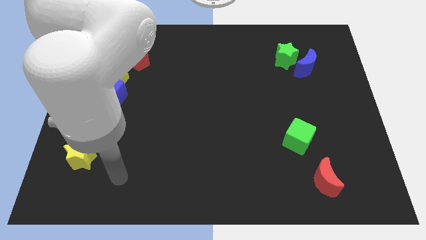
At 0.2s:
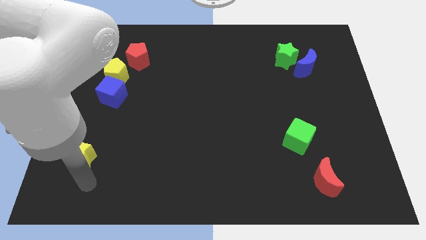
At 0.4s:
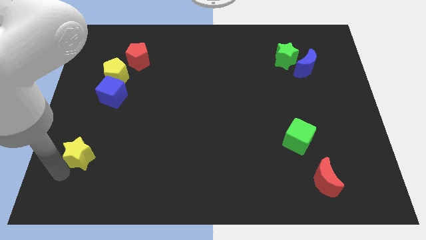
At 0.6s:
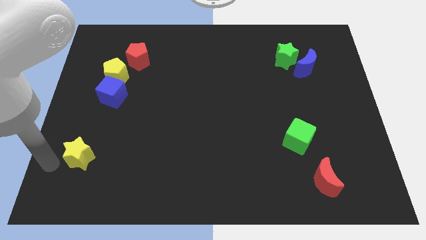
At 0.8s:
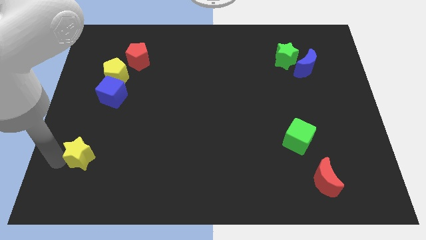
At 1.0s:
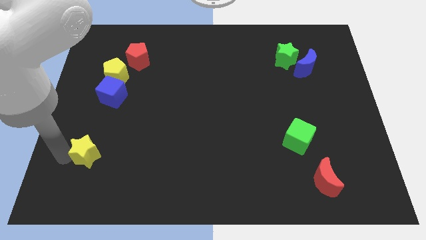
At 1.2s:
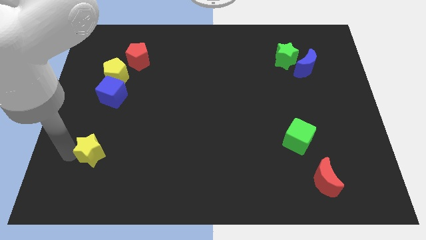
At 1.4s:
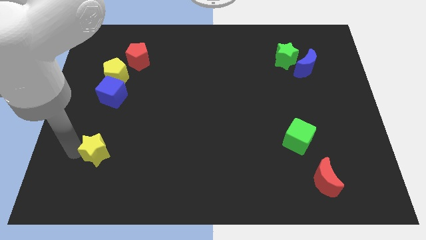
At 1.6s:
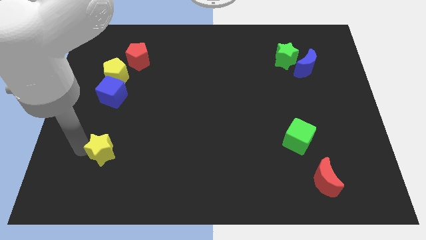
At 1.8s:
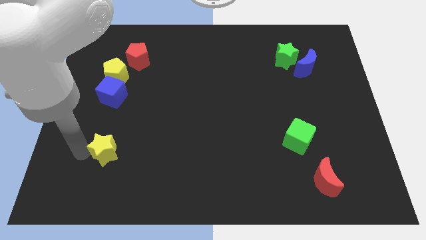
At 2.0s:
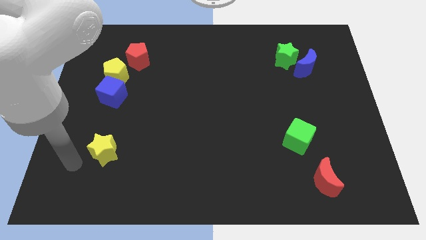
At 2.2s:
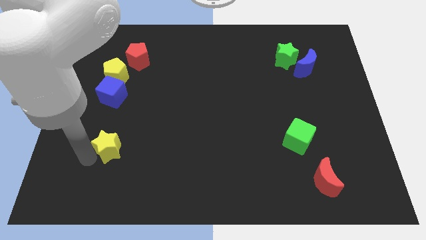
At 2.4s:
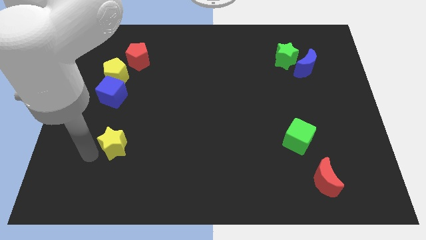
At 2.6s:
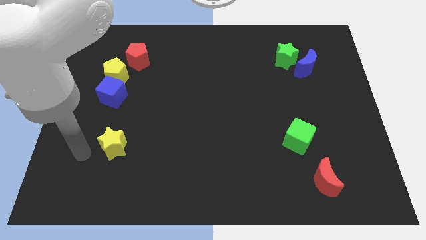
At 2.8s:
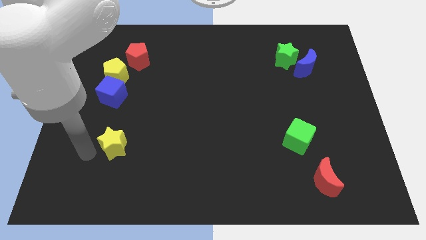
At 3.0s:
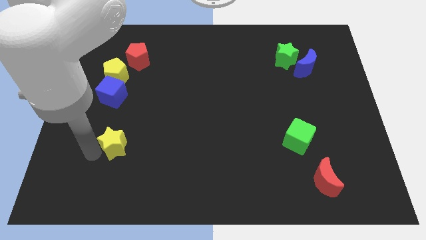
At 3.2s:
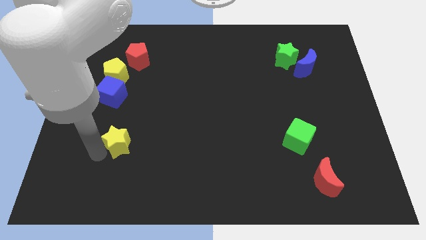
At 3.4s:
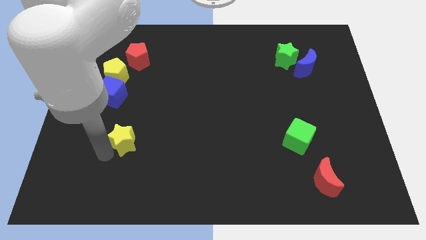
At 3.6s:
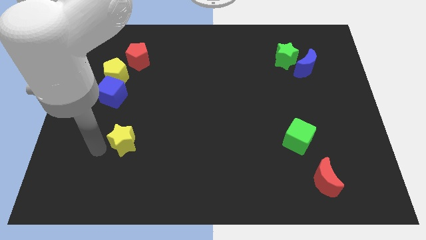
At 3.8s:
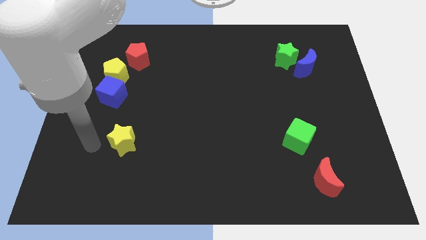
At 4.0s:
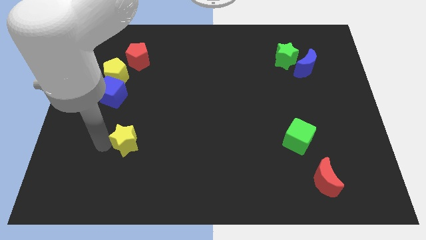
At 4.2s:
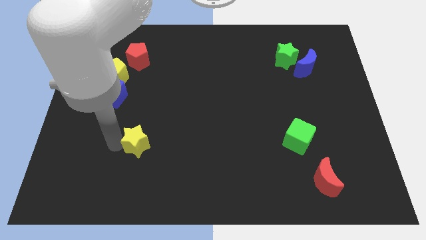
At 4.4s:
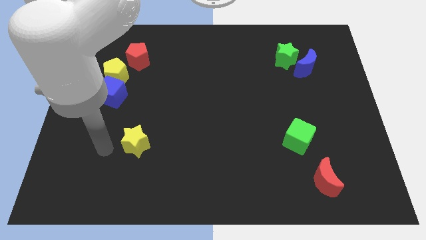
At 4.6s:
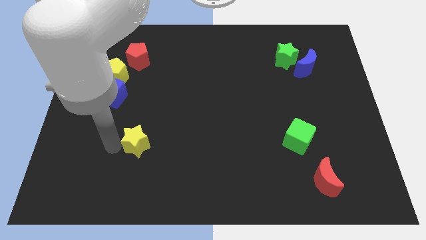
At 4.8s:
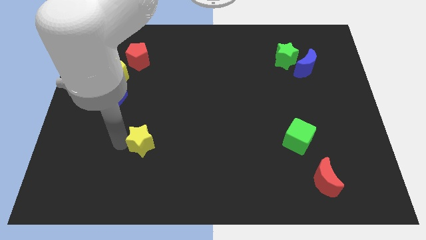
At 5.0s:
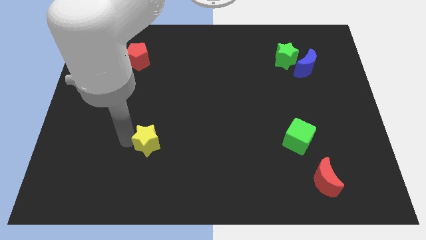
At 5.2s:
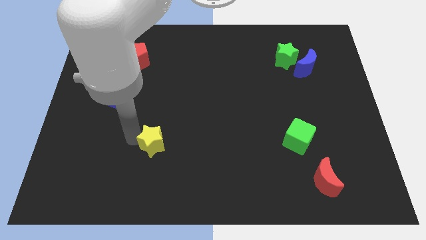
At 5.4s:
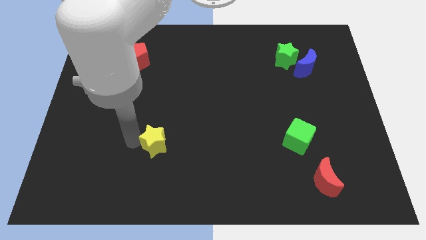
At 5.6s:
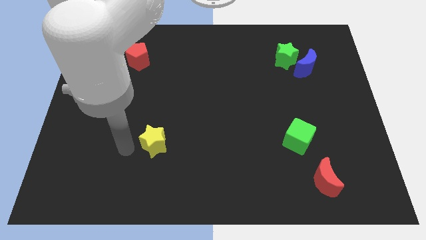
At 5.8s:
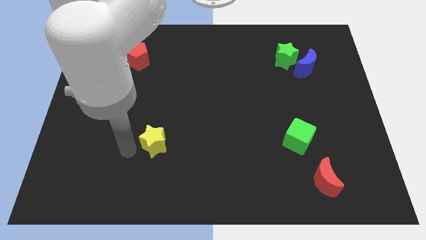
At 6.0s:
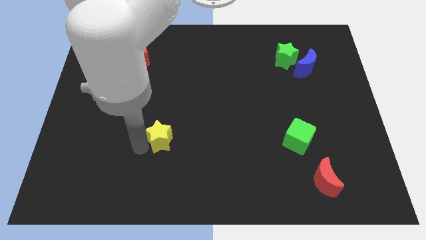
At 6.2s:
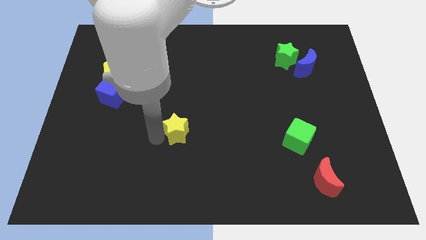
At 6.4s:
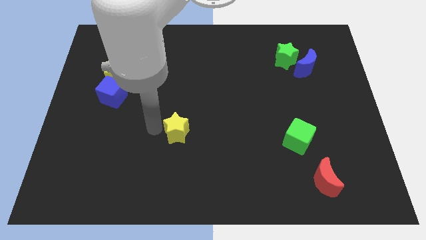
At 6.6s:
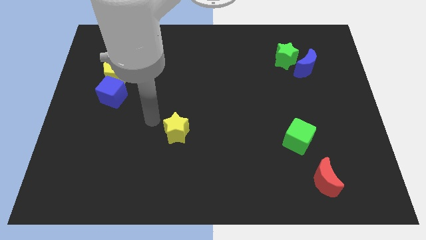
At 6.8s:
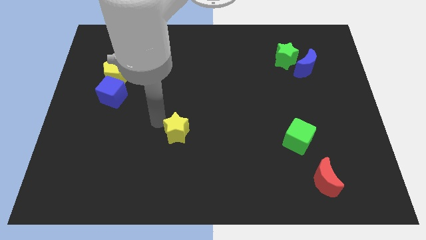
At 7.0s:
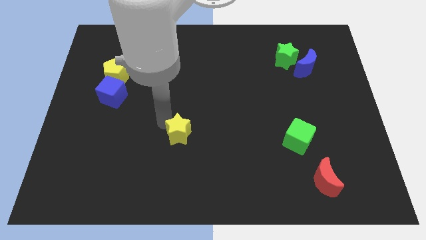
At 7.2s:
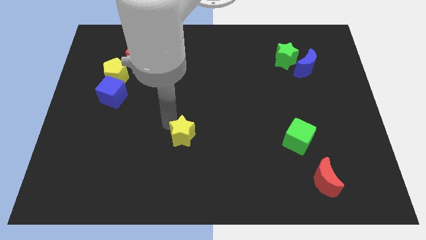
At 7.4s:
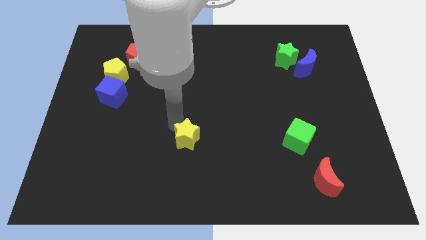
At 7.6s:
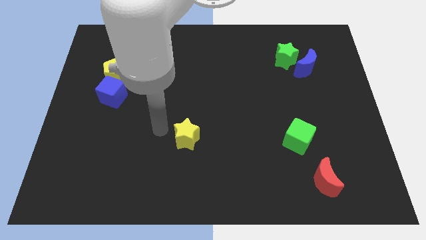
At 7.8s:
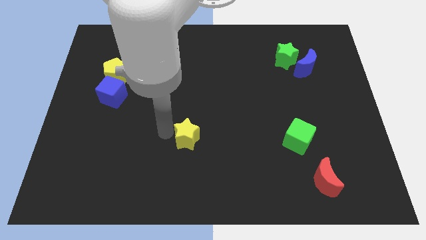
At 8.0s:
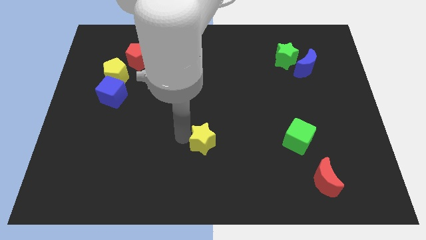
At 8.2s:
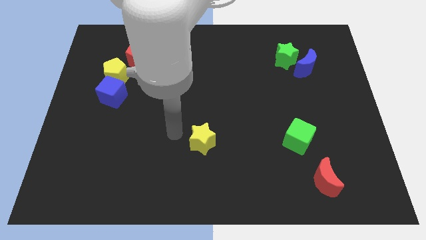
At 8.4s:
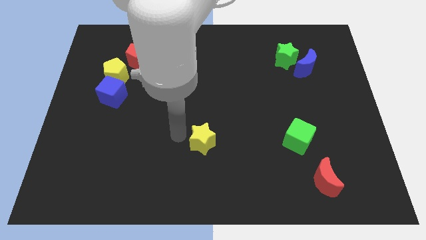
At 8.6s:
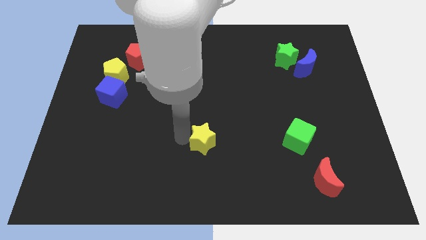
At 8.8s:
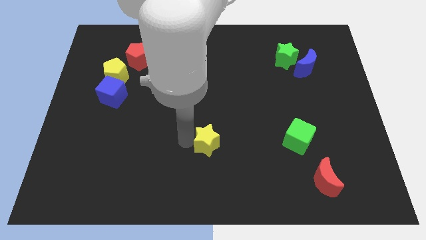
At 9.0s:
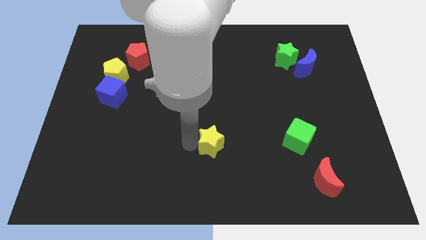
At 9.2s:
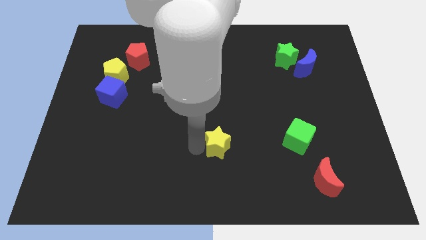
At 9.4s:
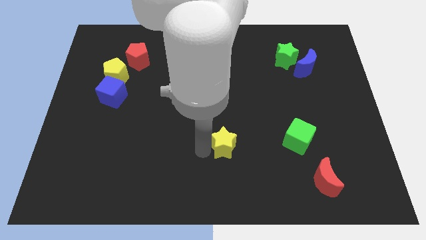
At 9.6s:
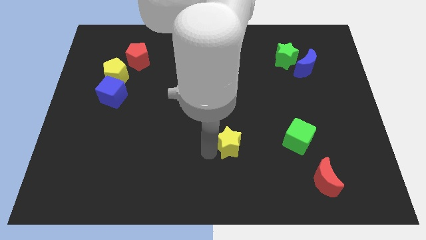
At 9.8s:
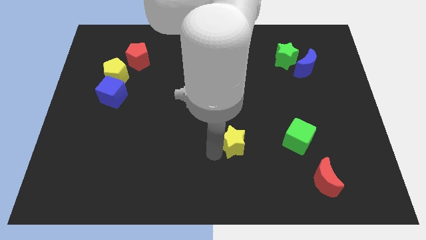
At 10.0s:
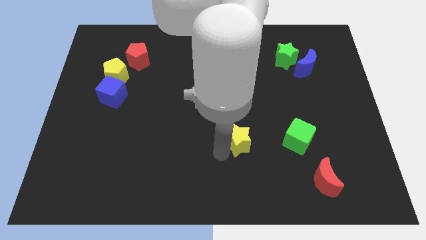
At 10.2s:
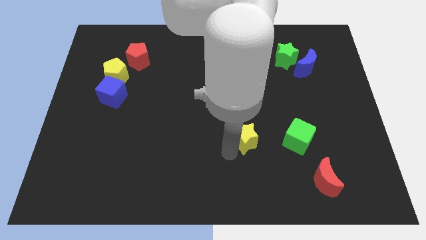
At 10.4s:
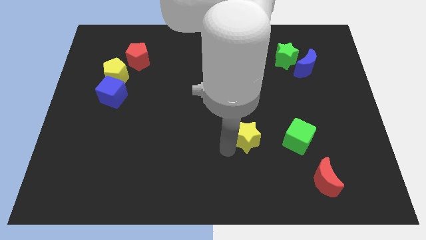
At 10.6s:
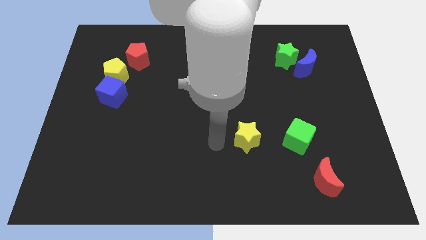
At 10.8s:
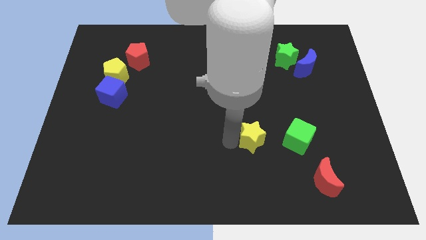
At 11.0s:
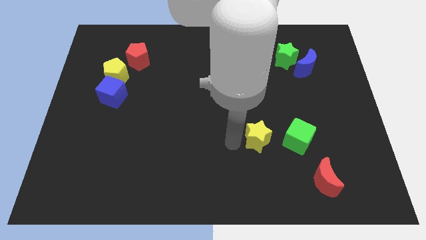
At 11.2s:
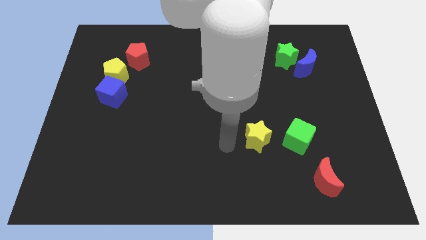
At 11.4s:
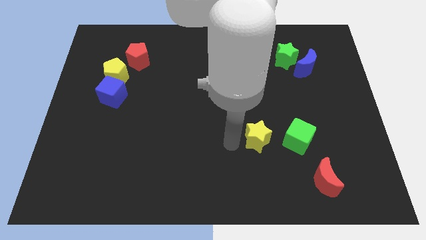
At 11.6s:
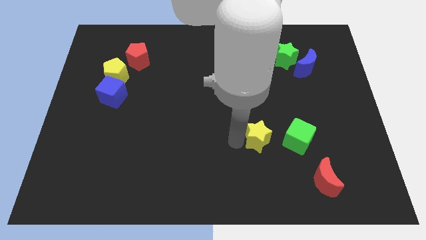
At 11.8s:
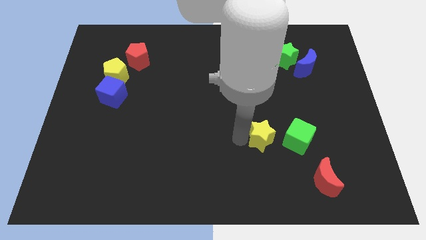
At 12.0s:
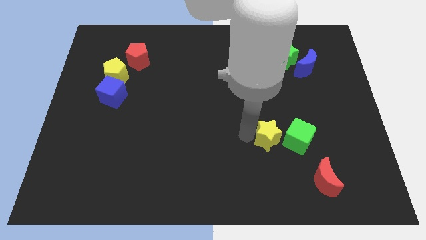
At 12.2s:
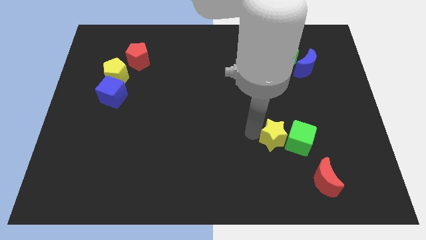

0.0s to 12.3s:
move the yellow star to the green cube
